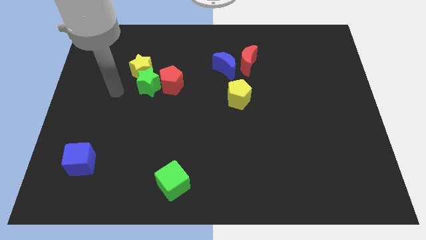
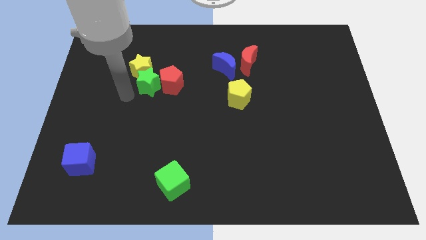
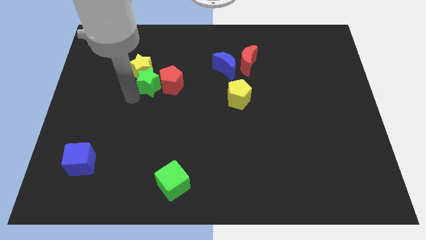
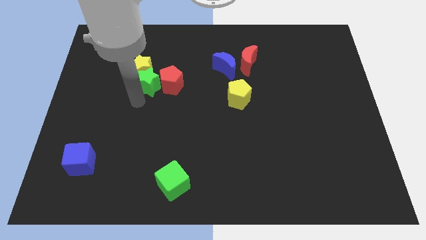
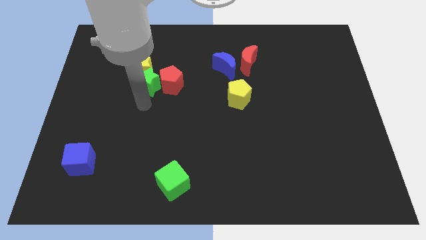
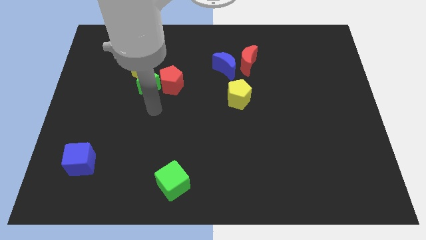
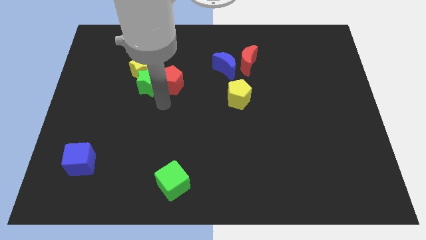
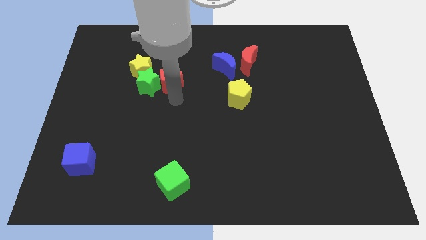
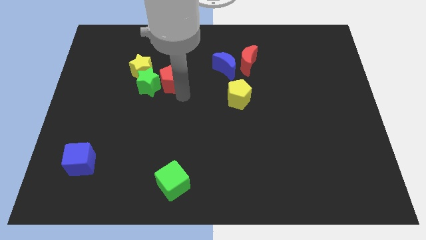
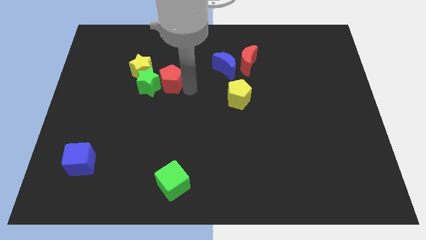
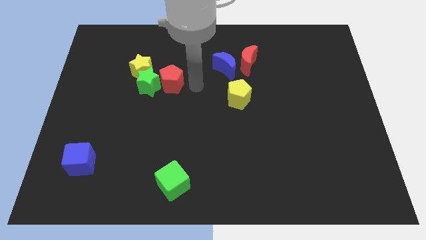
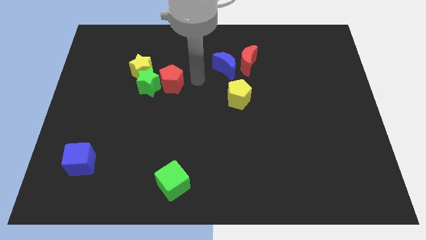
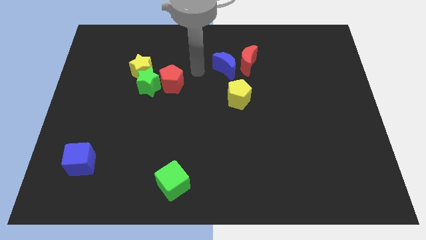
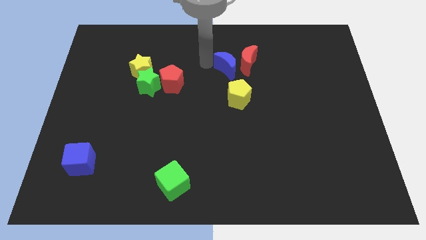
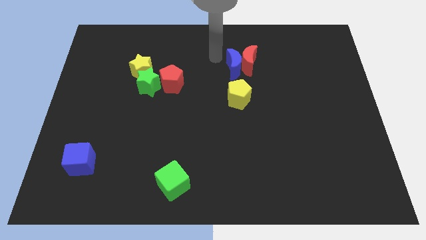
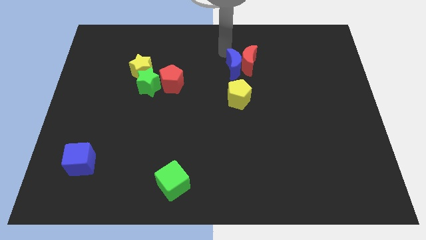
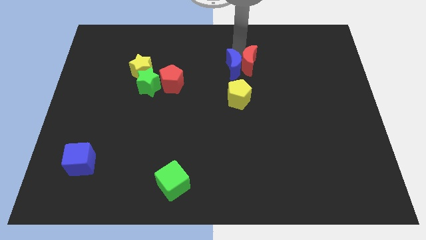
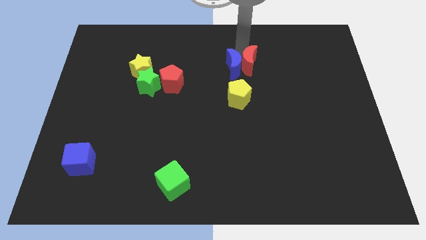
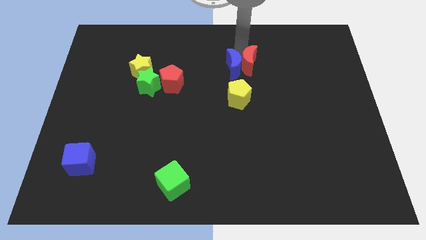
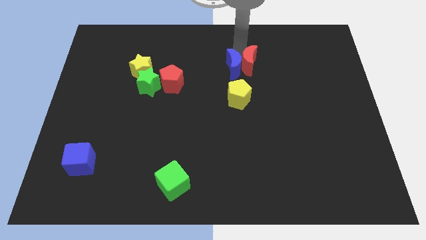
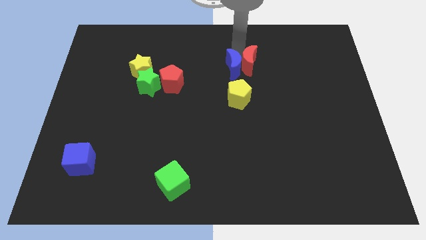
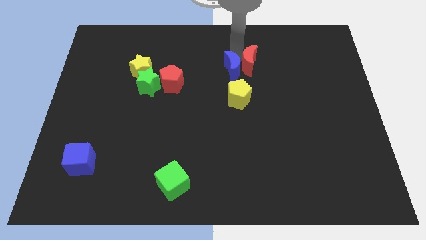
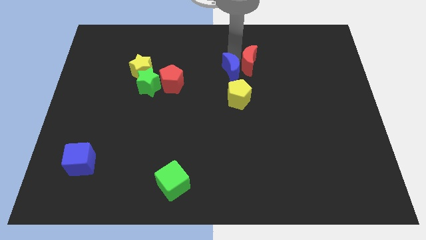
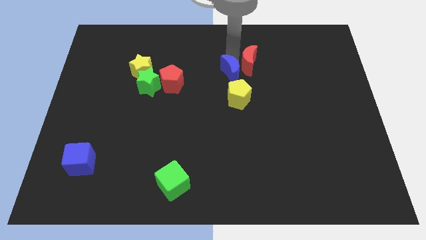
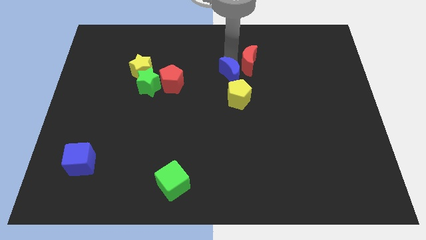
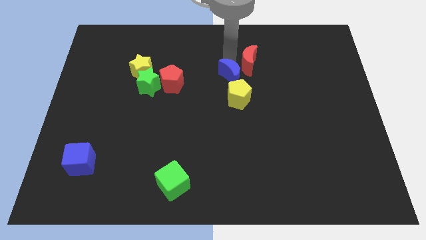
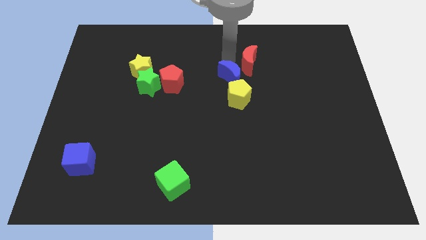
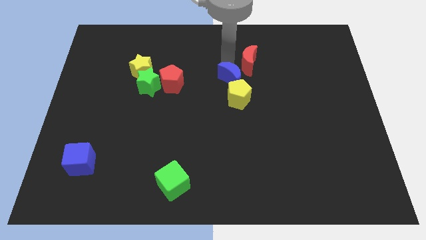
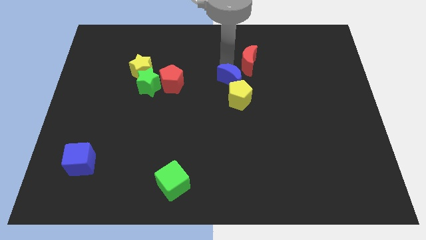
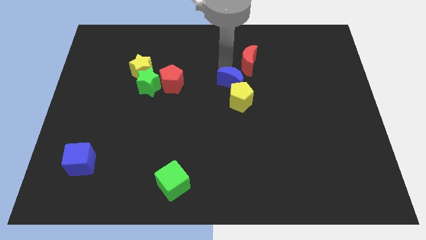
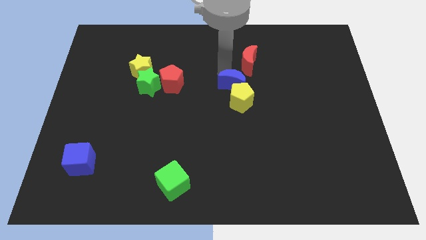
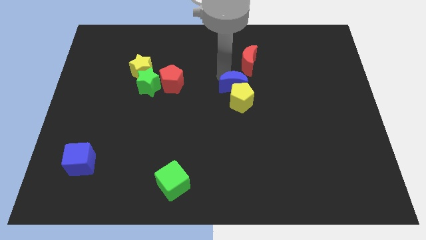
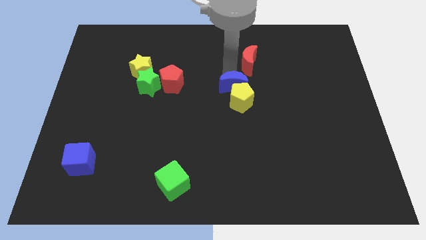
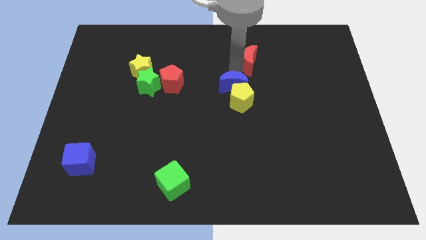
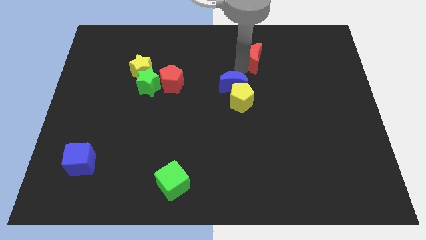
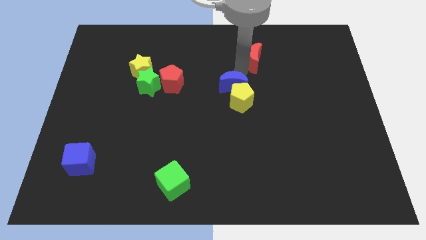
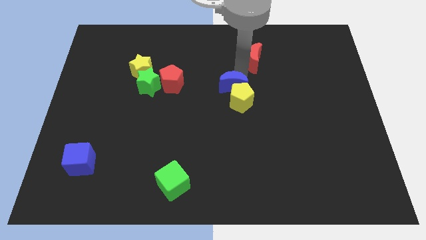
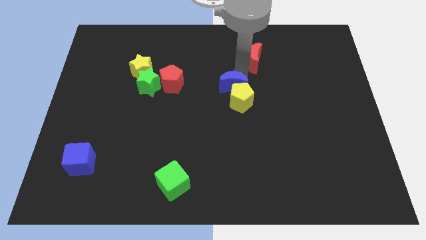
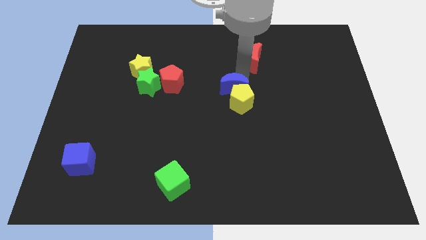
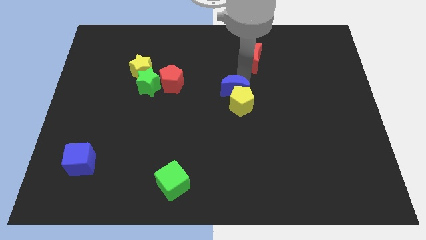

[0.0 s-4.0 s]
slide the blue moon a little downwards
